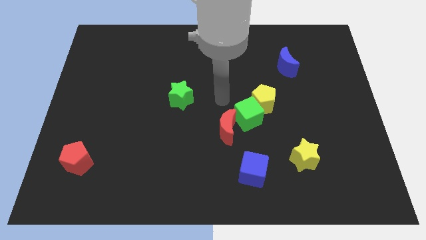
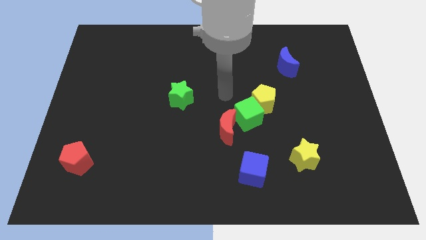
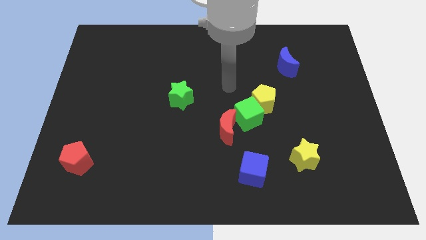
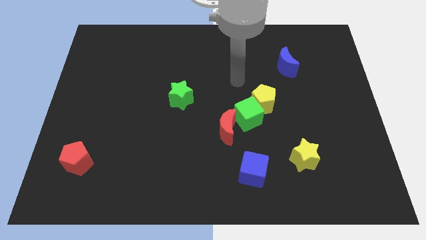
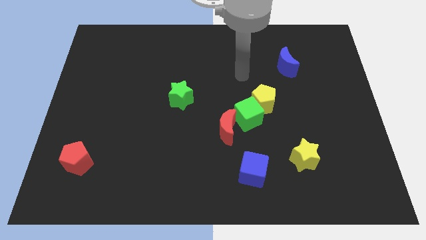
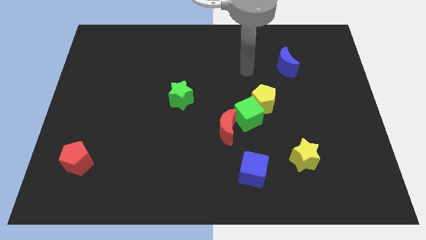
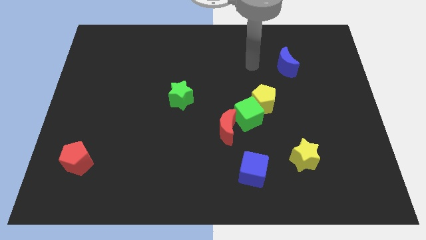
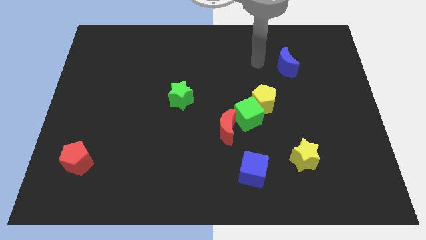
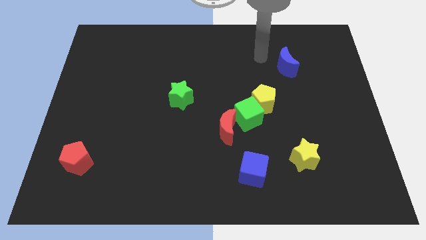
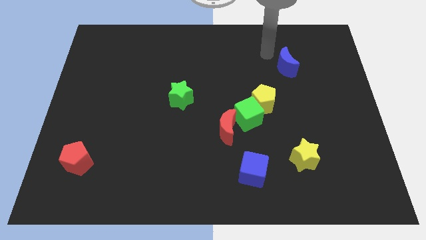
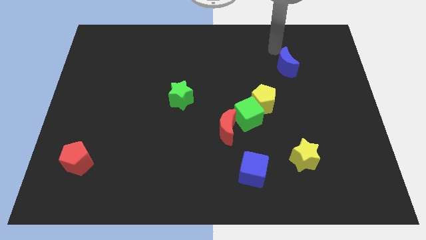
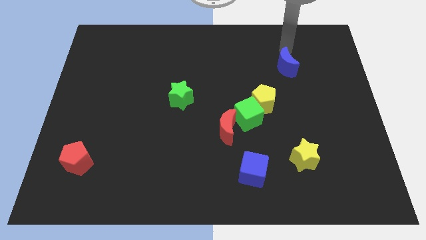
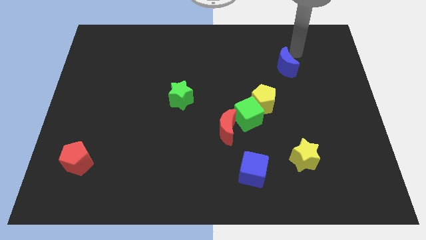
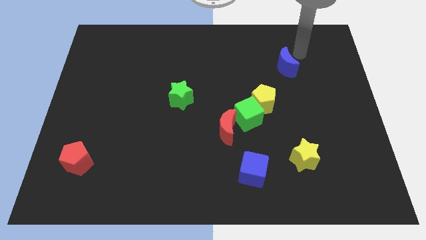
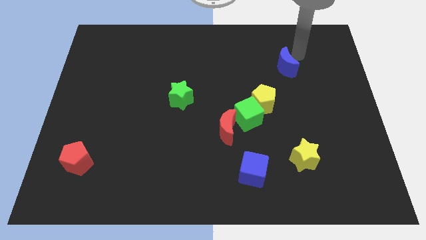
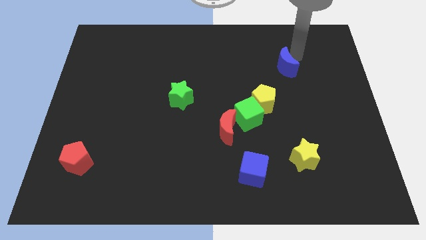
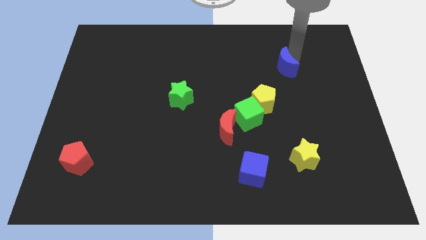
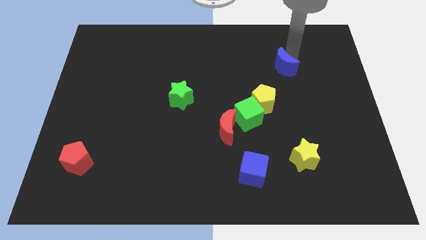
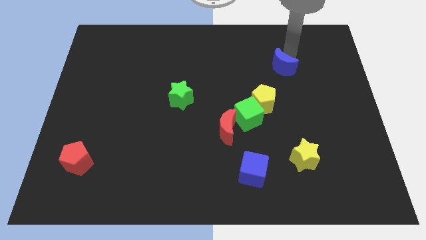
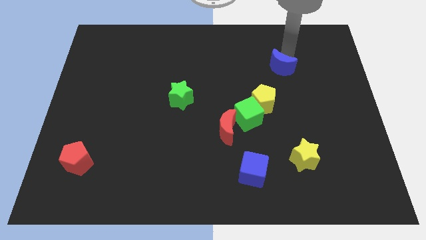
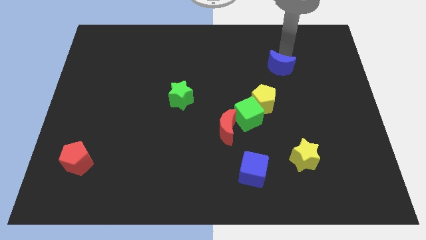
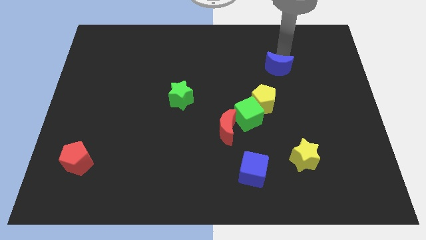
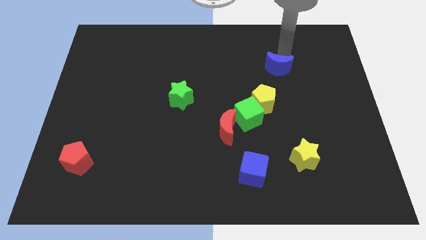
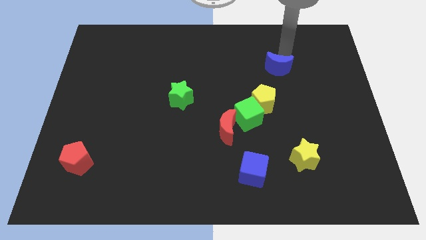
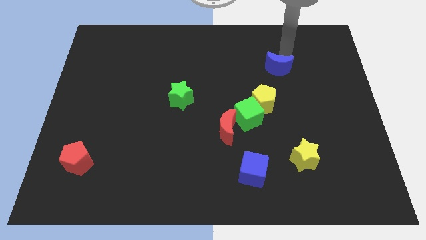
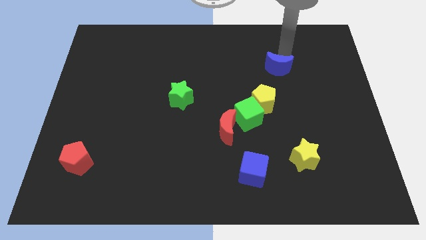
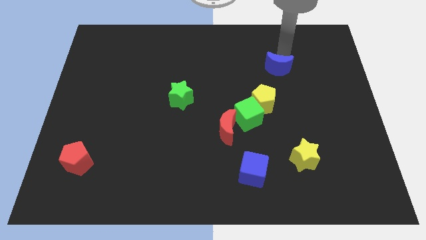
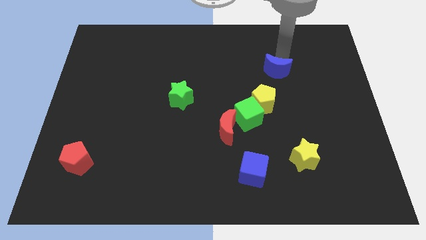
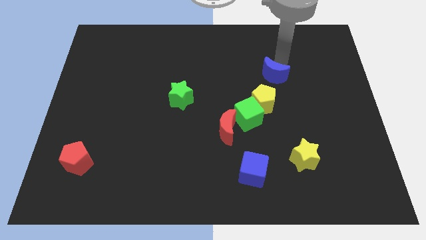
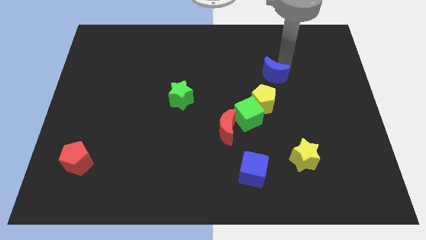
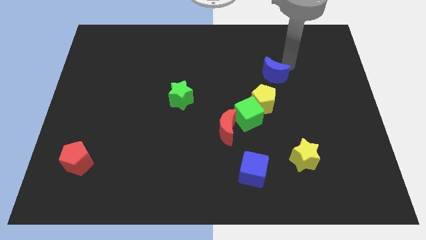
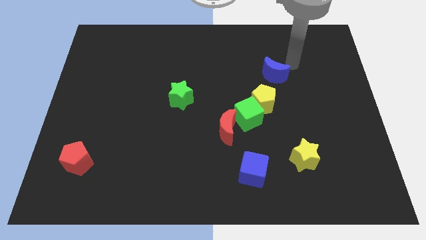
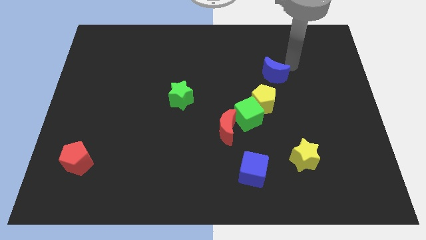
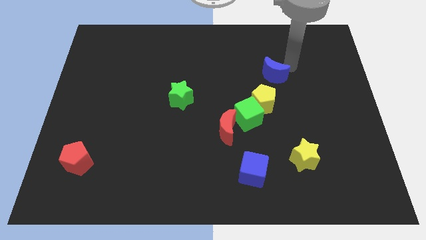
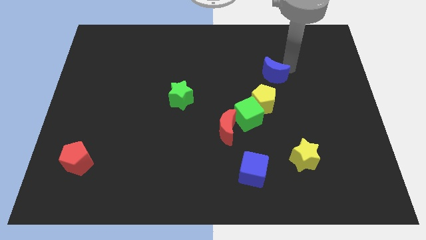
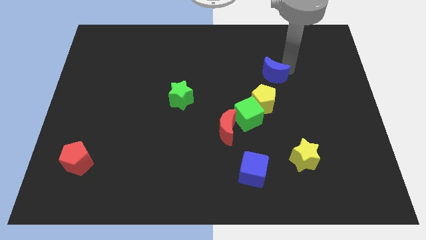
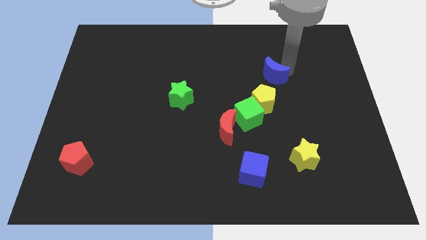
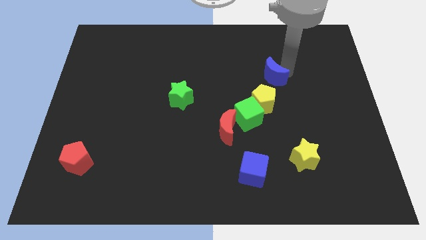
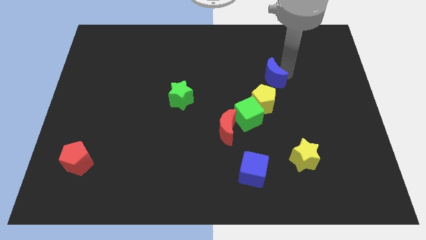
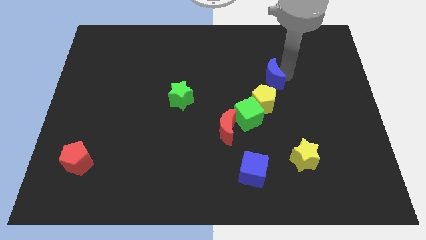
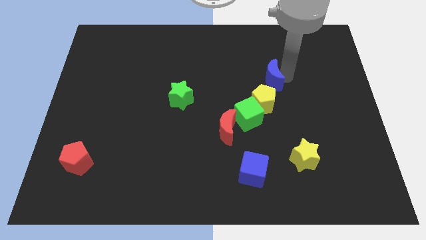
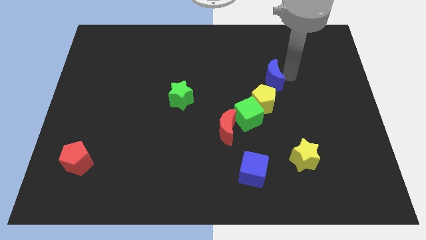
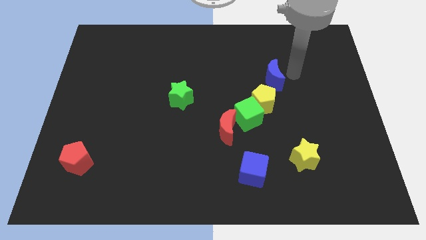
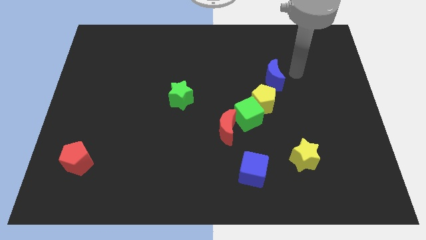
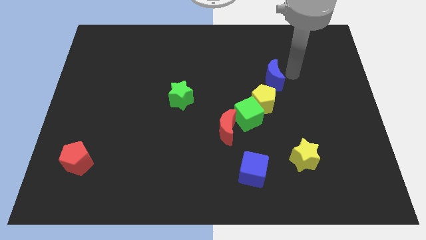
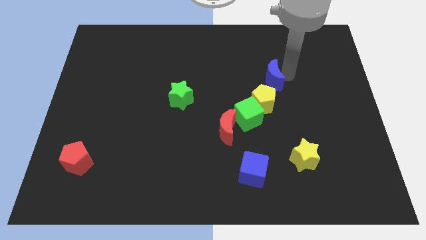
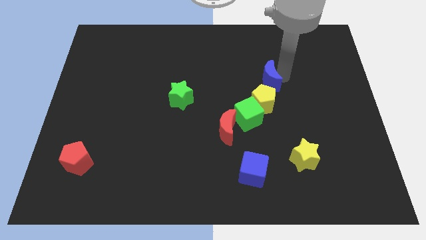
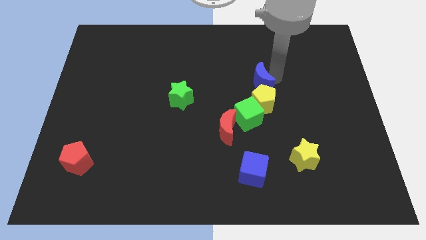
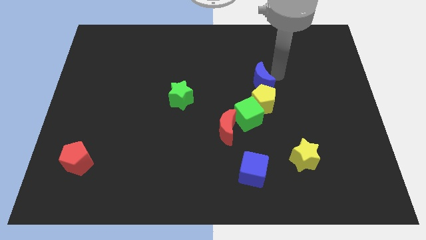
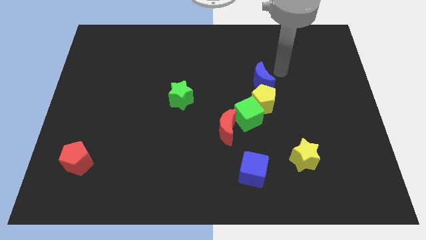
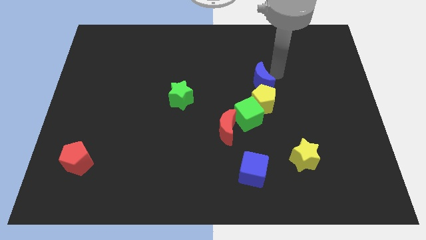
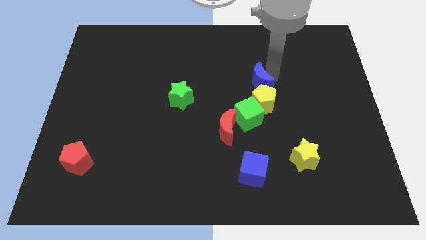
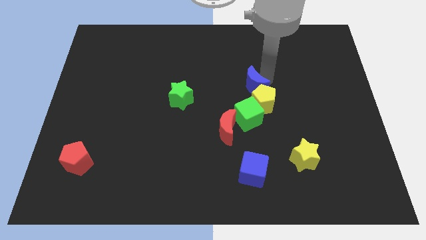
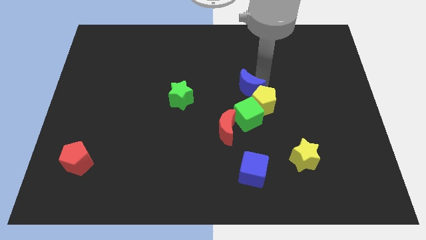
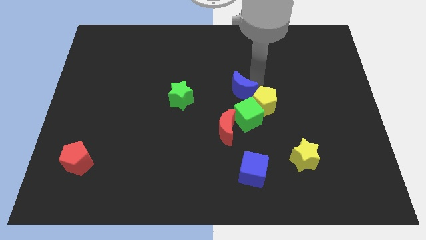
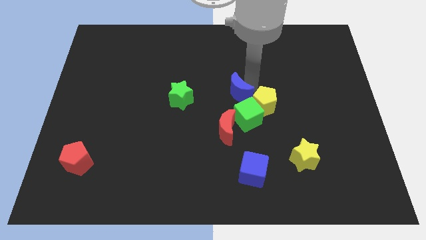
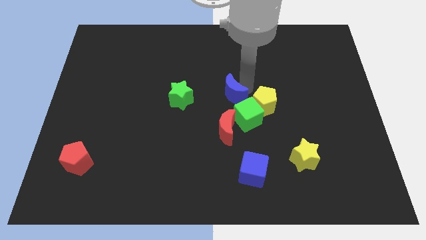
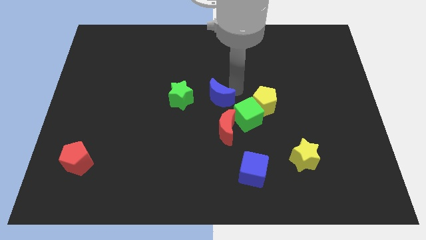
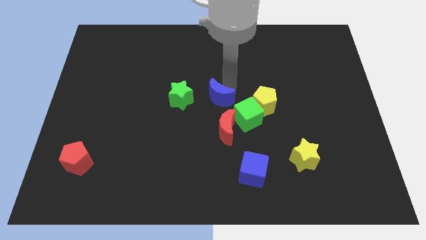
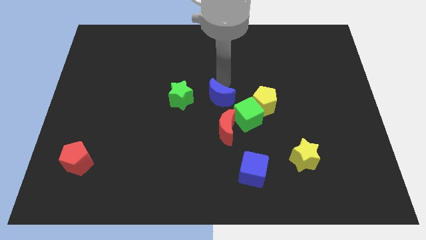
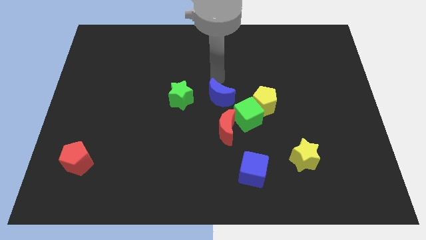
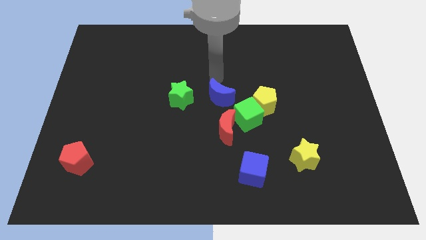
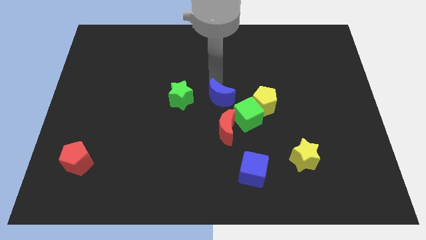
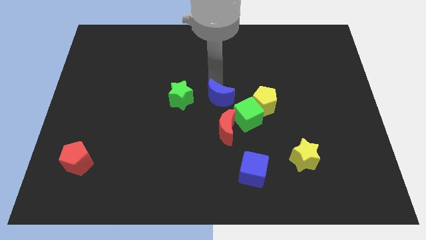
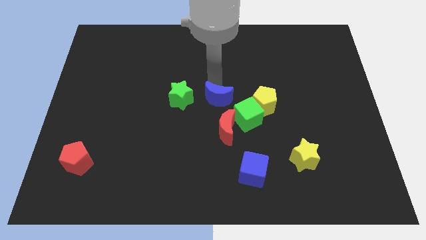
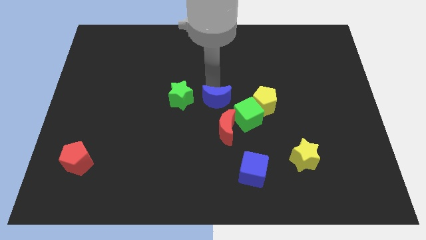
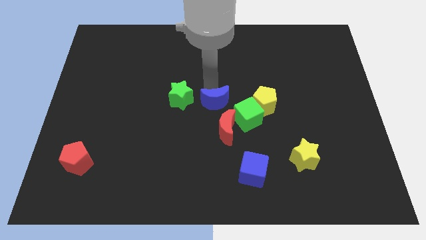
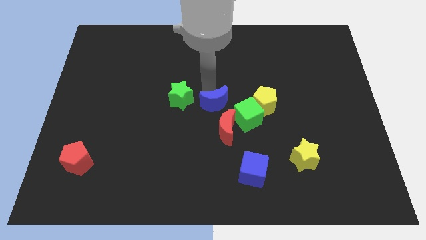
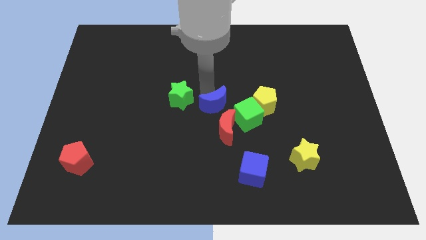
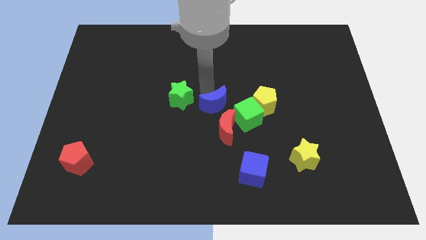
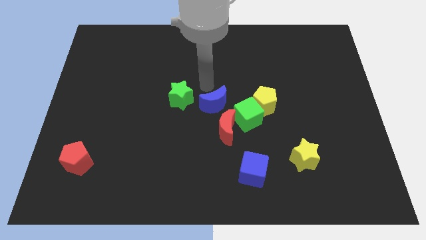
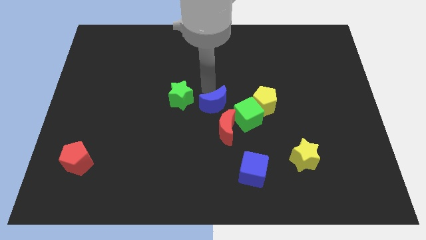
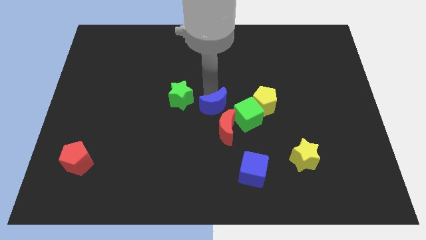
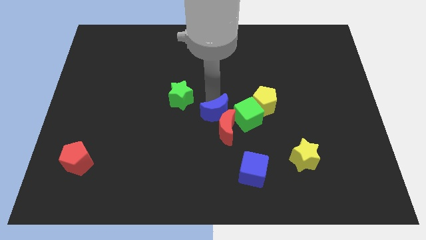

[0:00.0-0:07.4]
put the blue moon towards the red moon
